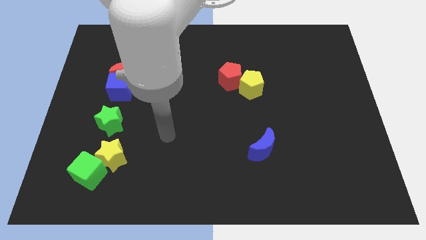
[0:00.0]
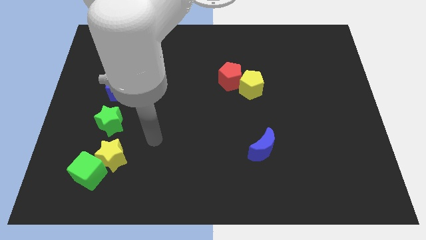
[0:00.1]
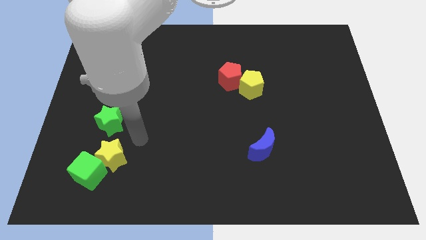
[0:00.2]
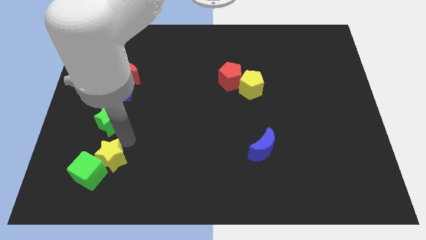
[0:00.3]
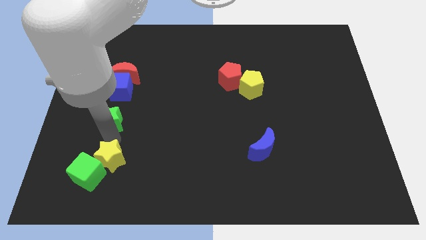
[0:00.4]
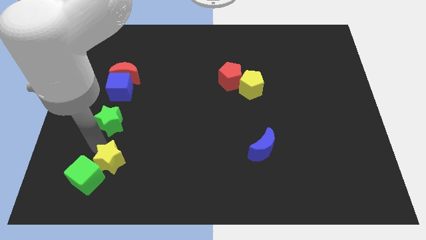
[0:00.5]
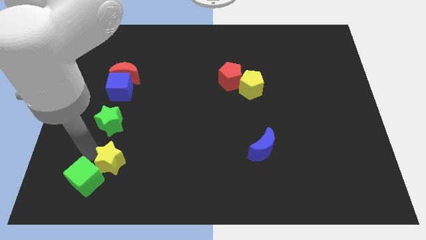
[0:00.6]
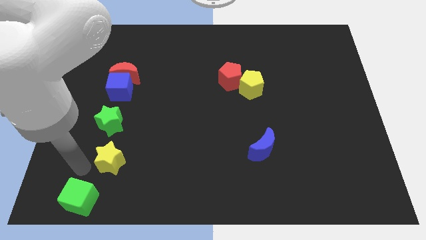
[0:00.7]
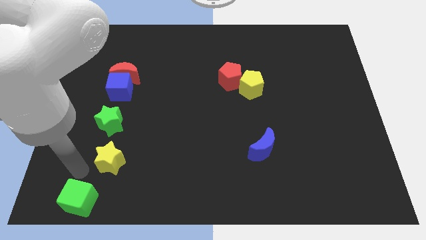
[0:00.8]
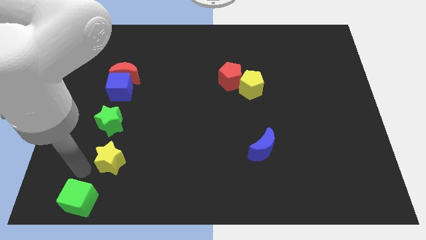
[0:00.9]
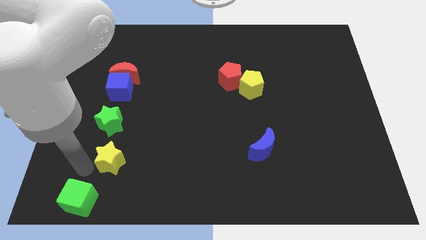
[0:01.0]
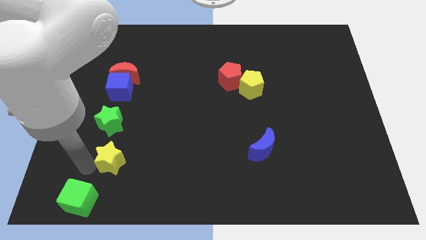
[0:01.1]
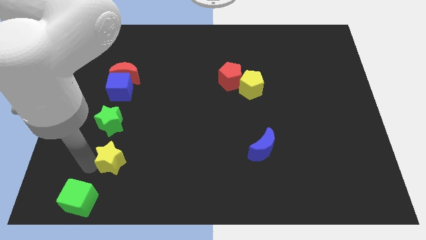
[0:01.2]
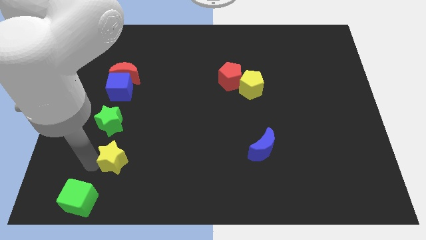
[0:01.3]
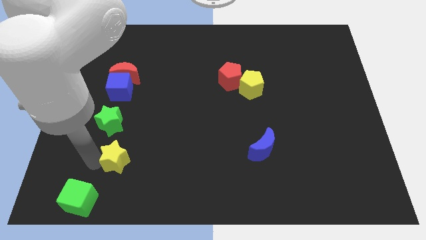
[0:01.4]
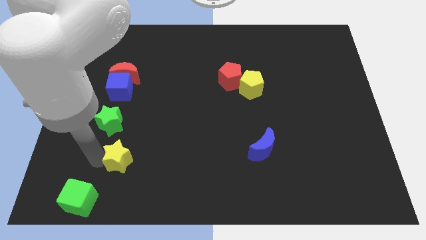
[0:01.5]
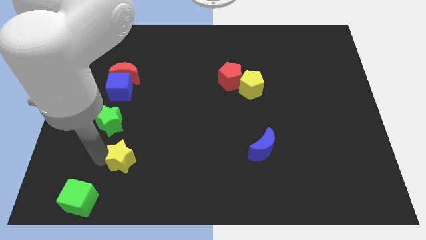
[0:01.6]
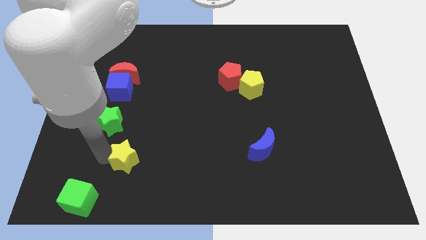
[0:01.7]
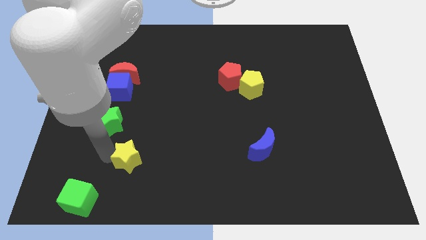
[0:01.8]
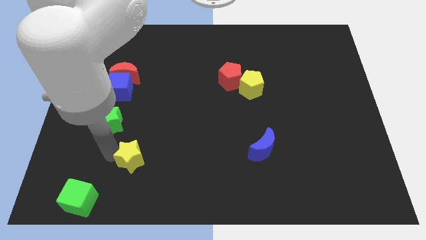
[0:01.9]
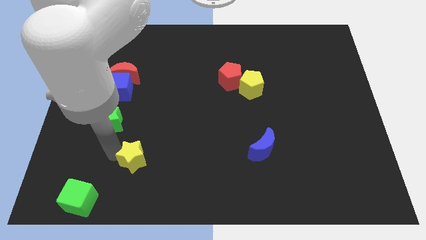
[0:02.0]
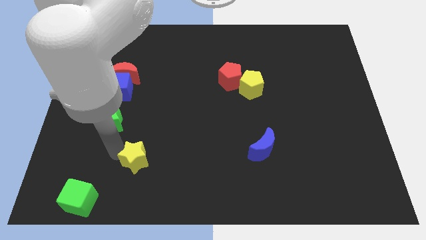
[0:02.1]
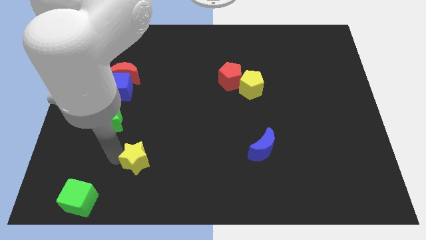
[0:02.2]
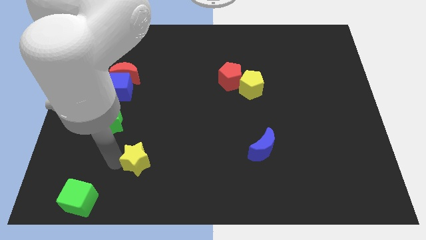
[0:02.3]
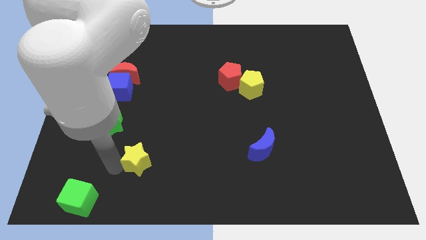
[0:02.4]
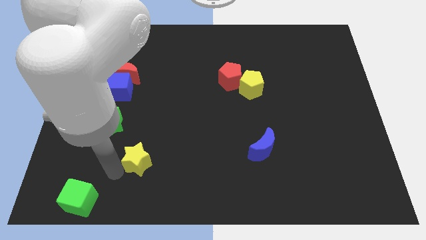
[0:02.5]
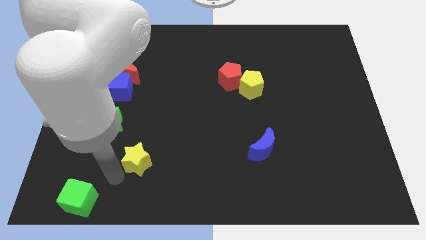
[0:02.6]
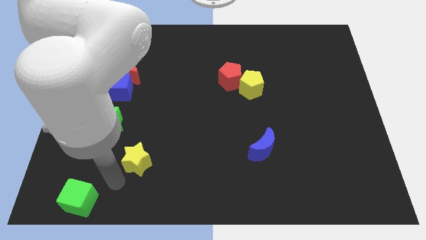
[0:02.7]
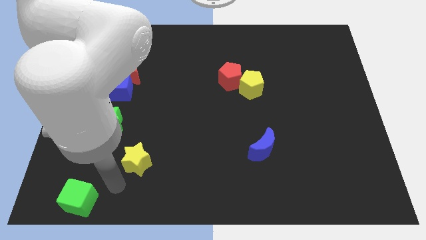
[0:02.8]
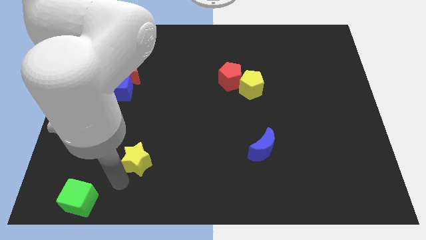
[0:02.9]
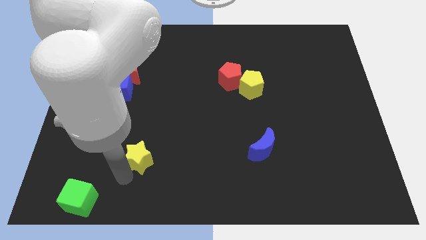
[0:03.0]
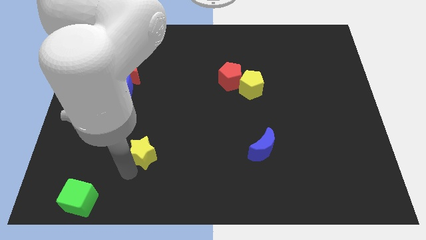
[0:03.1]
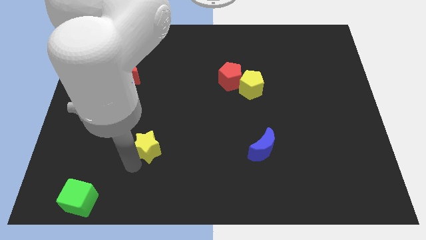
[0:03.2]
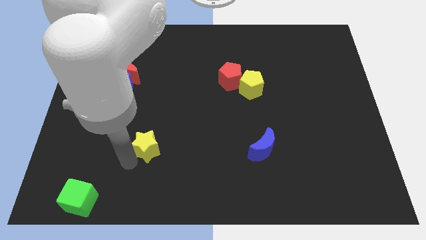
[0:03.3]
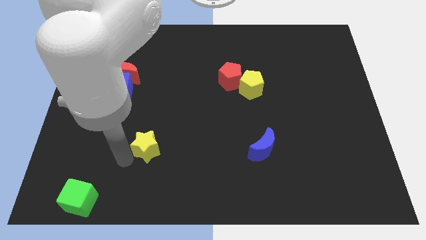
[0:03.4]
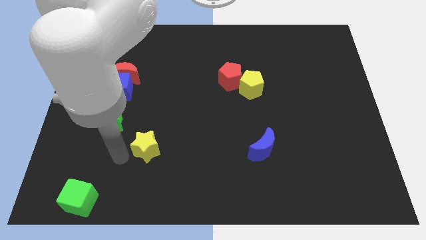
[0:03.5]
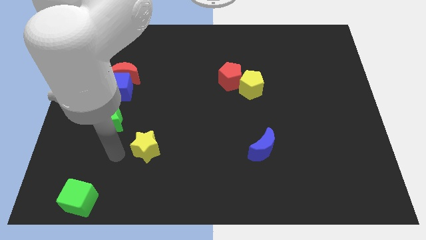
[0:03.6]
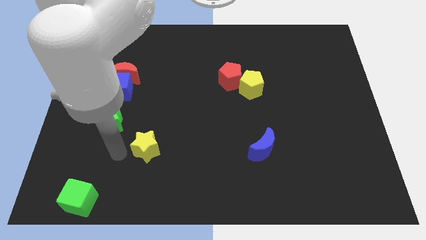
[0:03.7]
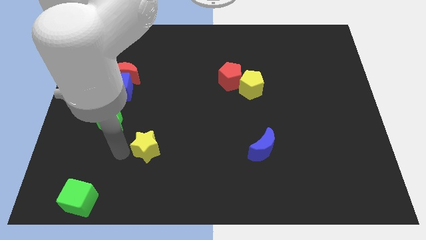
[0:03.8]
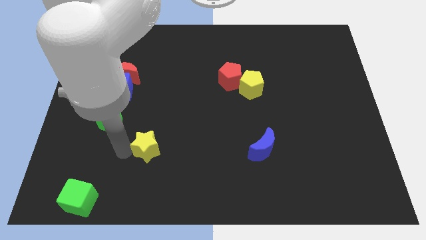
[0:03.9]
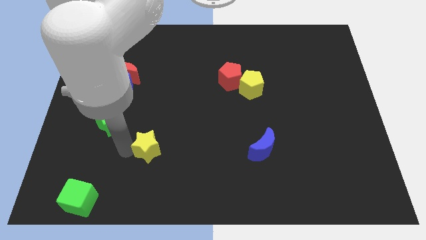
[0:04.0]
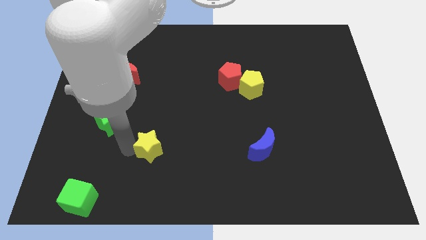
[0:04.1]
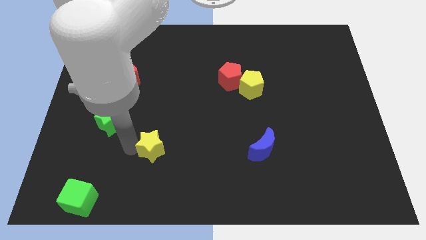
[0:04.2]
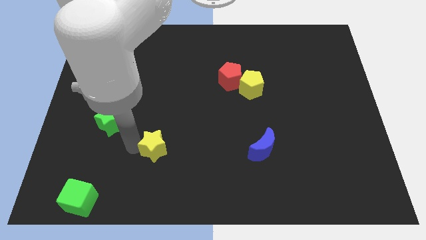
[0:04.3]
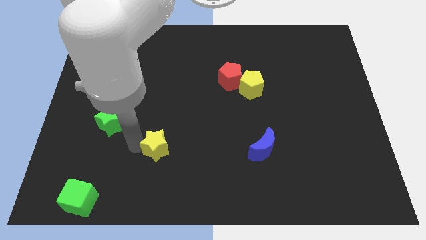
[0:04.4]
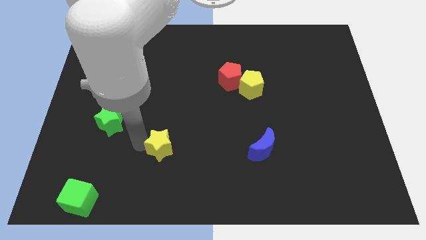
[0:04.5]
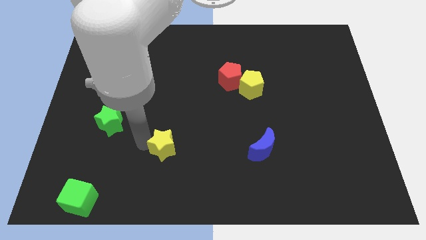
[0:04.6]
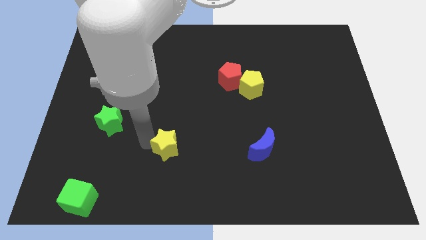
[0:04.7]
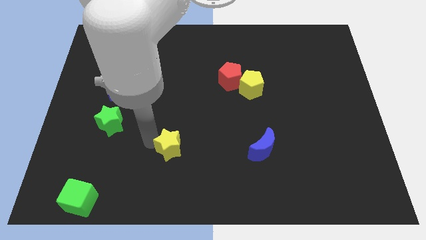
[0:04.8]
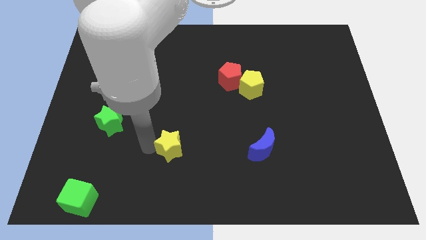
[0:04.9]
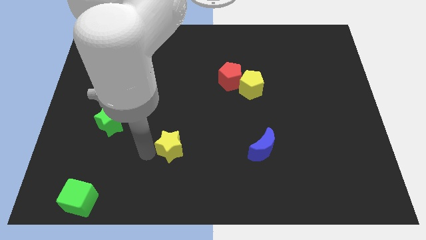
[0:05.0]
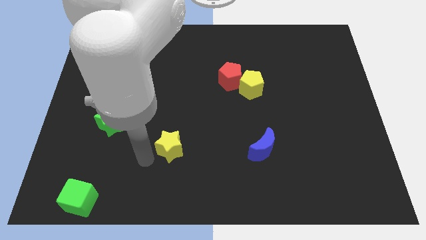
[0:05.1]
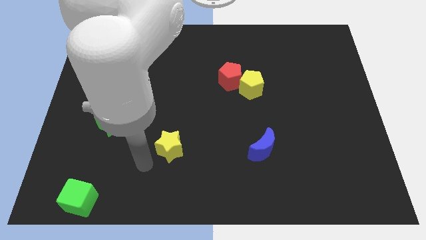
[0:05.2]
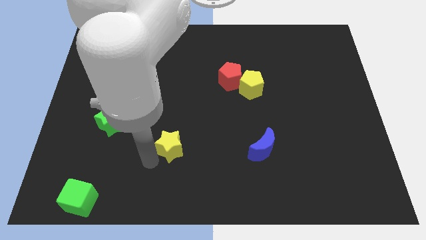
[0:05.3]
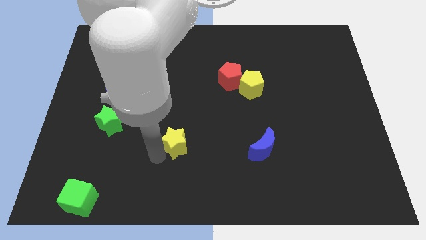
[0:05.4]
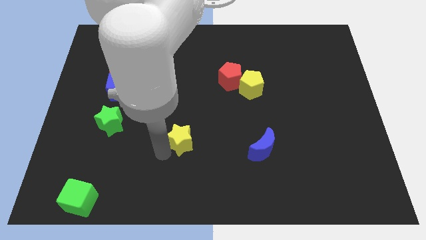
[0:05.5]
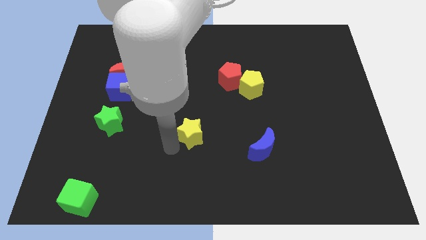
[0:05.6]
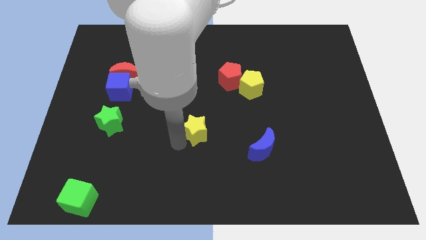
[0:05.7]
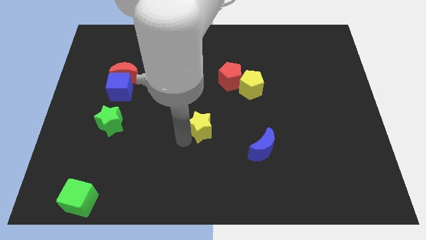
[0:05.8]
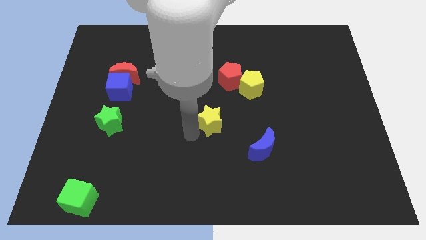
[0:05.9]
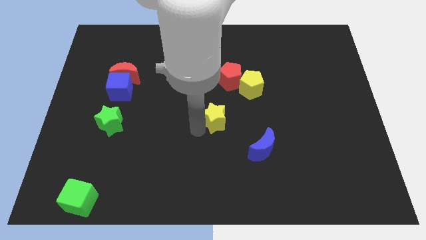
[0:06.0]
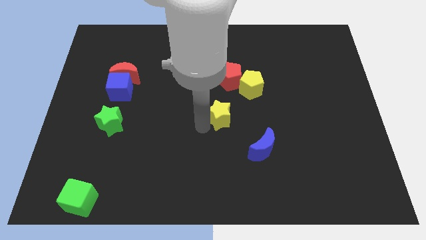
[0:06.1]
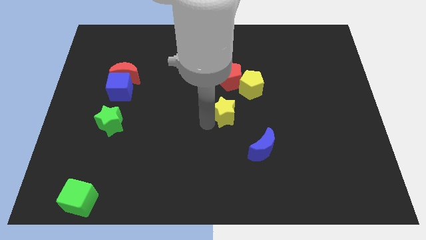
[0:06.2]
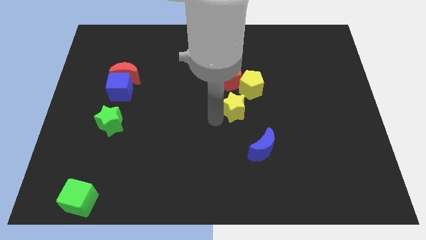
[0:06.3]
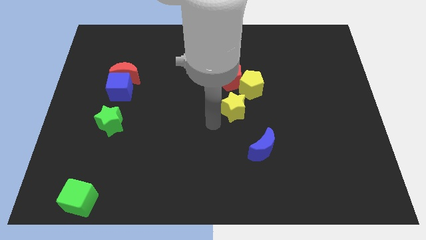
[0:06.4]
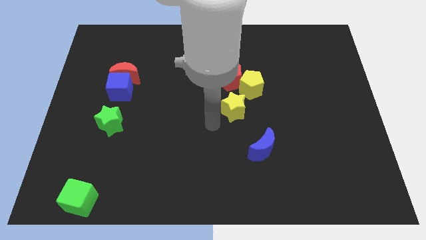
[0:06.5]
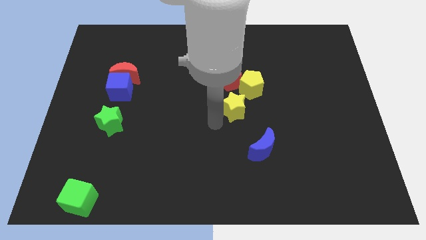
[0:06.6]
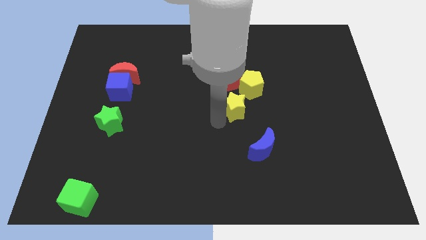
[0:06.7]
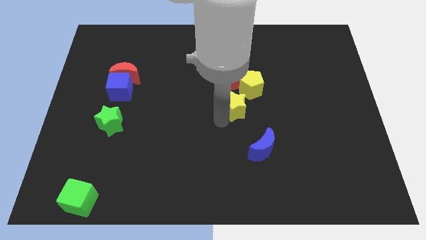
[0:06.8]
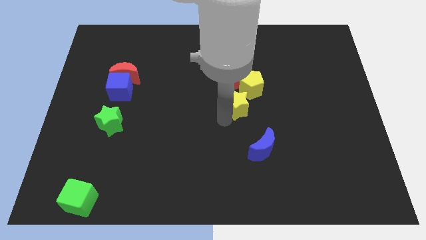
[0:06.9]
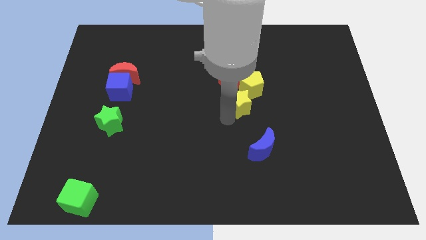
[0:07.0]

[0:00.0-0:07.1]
push the yellow star to the bottom right of the red pentagon
